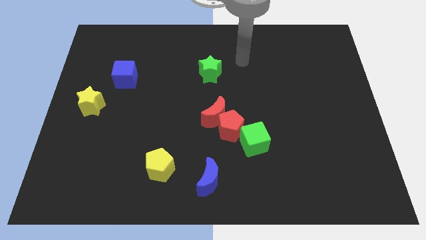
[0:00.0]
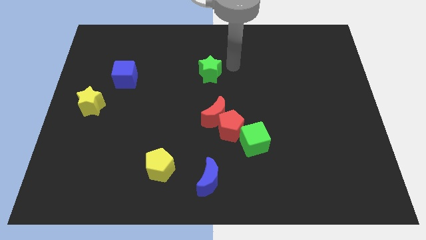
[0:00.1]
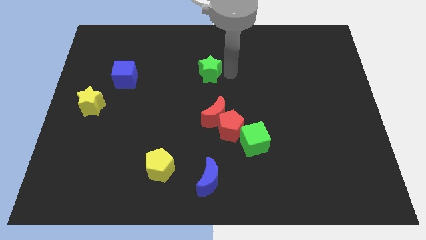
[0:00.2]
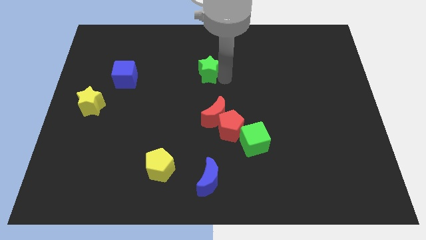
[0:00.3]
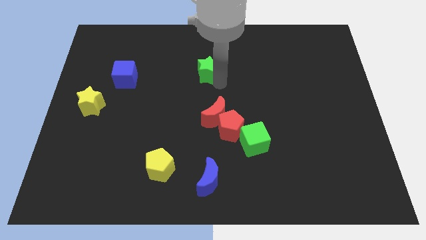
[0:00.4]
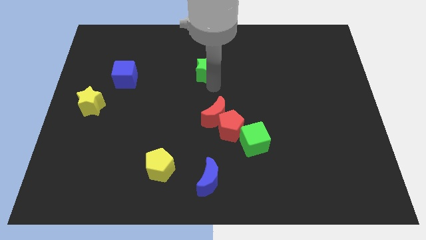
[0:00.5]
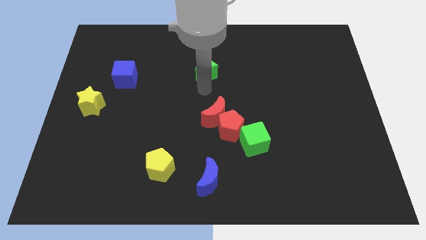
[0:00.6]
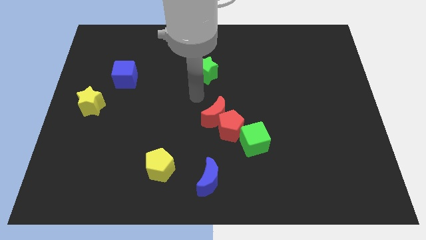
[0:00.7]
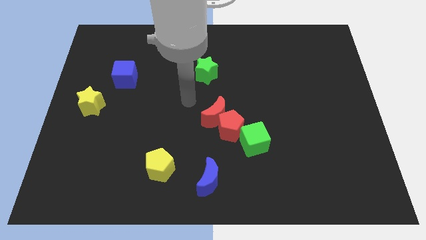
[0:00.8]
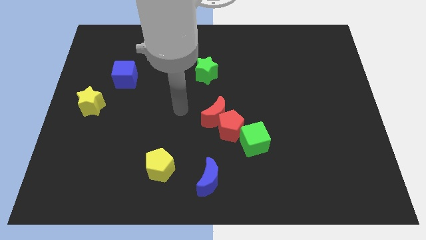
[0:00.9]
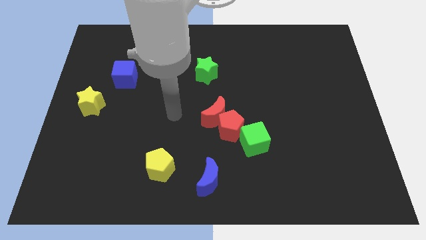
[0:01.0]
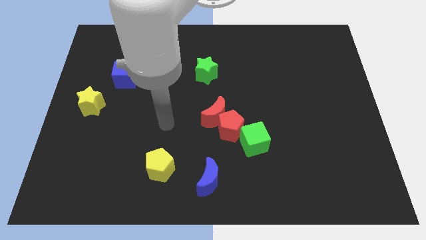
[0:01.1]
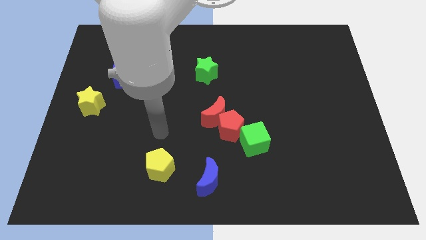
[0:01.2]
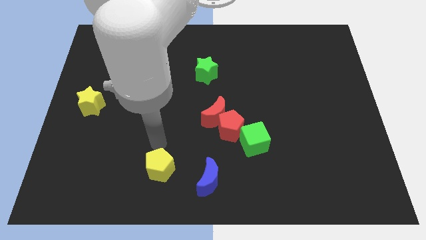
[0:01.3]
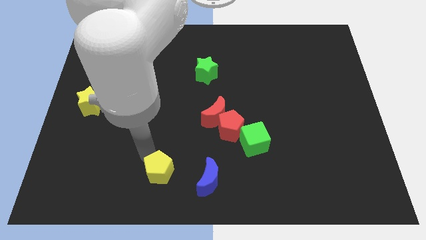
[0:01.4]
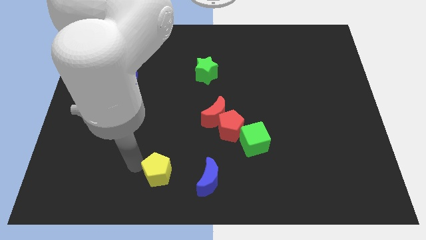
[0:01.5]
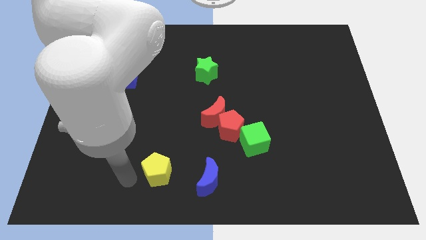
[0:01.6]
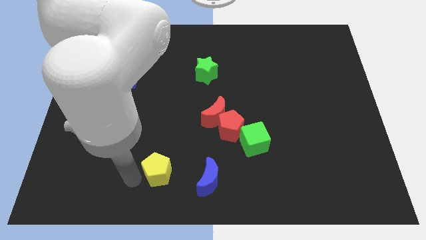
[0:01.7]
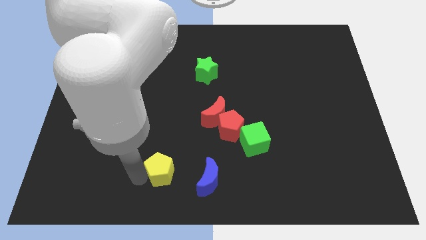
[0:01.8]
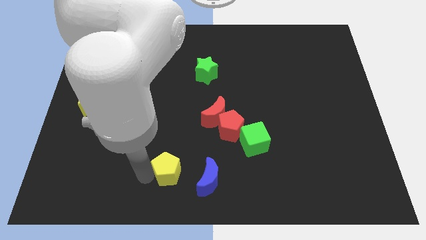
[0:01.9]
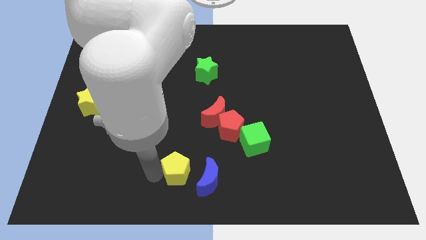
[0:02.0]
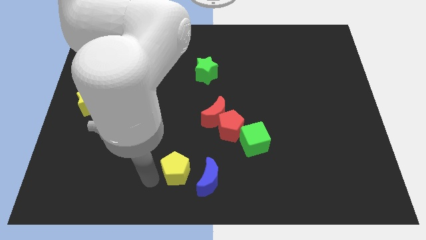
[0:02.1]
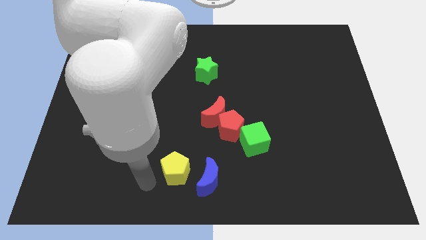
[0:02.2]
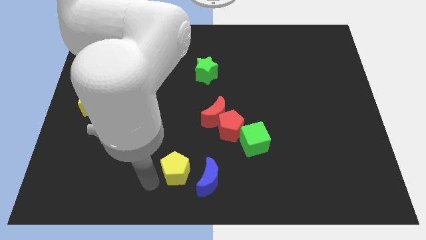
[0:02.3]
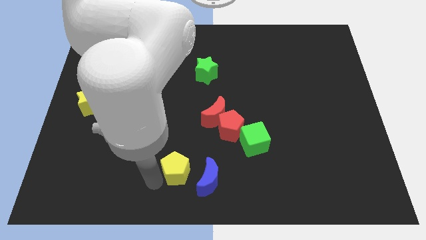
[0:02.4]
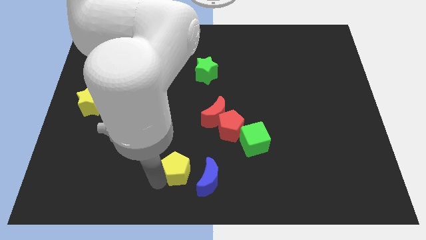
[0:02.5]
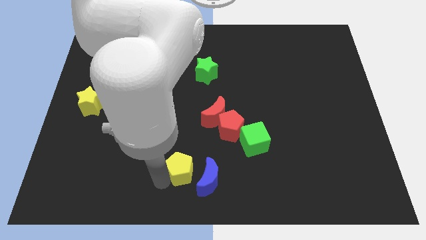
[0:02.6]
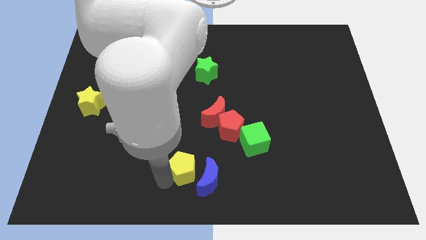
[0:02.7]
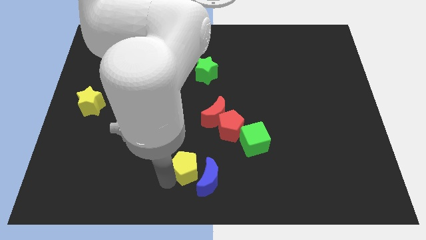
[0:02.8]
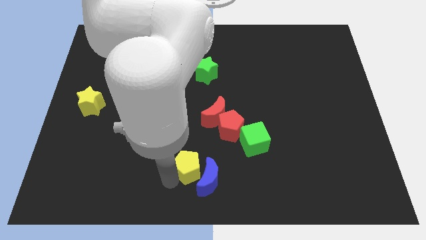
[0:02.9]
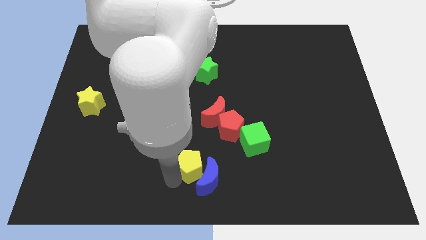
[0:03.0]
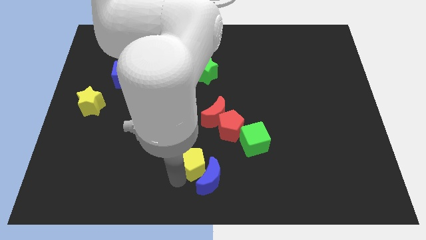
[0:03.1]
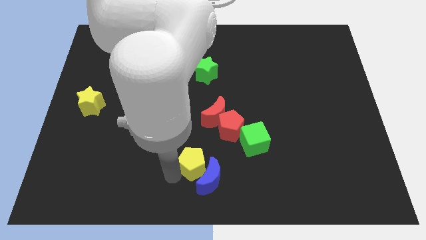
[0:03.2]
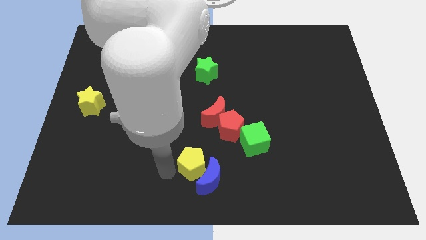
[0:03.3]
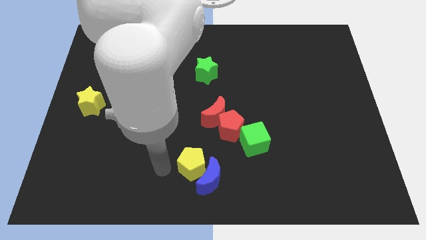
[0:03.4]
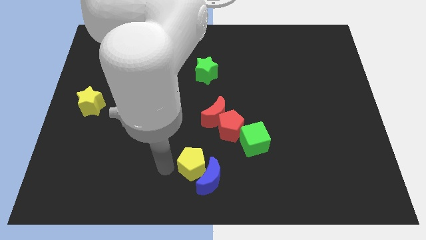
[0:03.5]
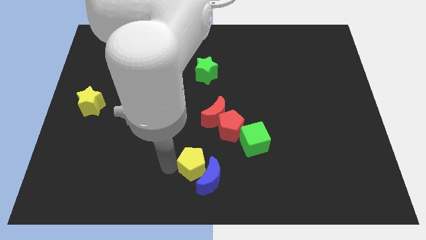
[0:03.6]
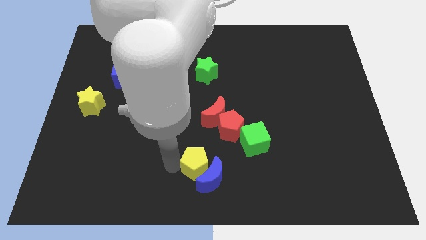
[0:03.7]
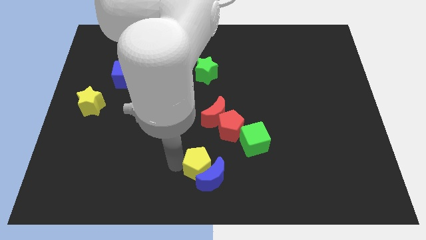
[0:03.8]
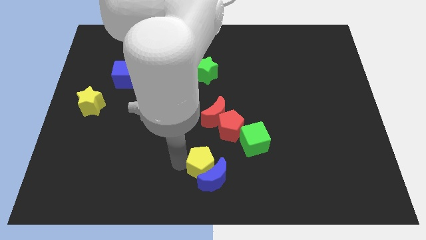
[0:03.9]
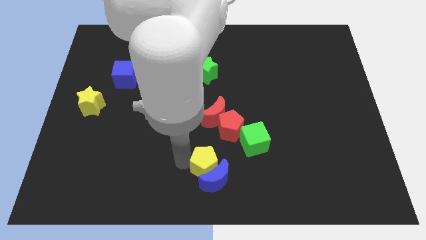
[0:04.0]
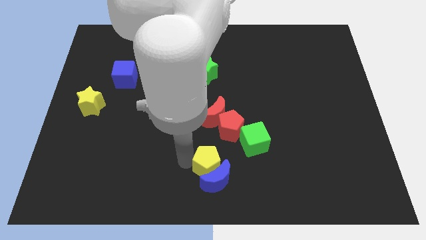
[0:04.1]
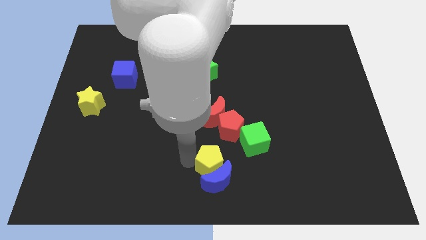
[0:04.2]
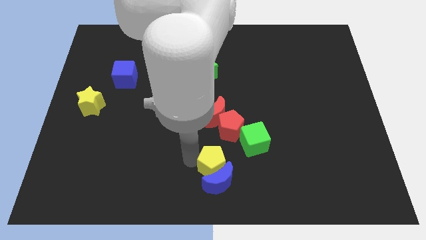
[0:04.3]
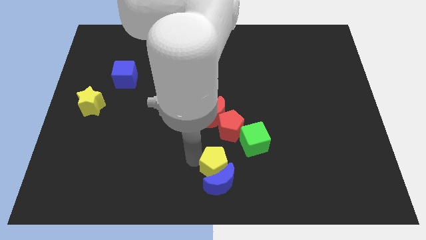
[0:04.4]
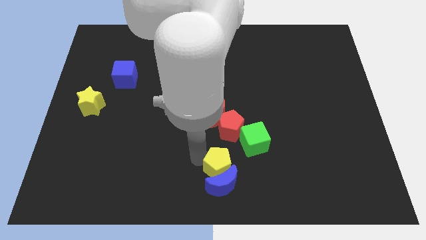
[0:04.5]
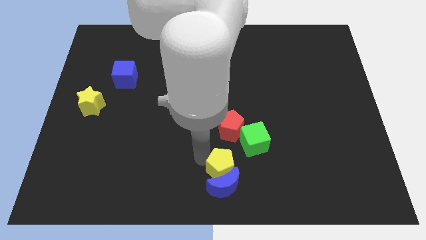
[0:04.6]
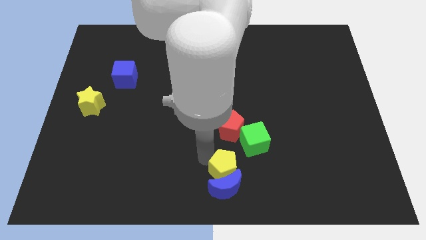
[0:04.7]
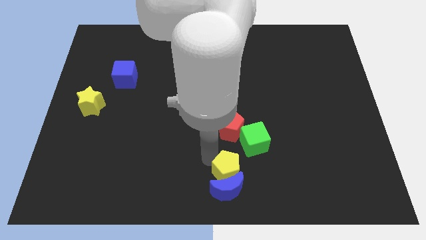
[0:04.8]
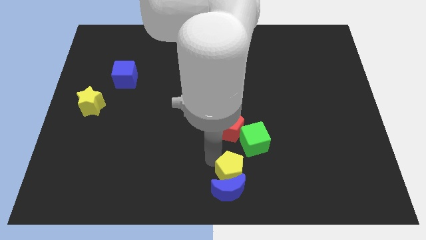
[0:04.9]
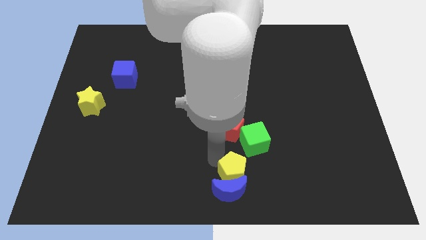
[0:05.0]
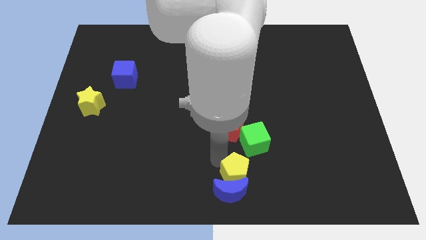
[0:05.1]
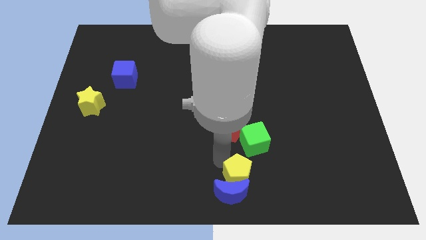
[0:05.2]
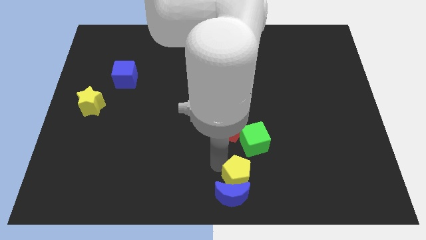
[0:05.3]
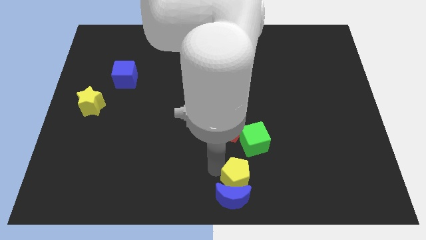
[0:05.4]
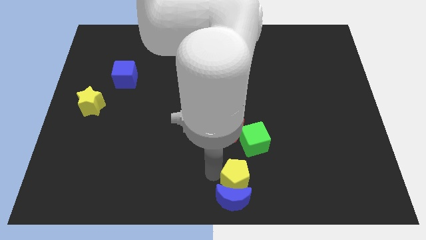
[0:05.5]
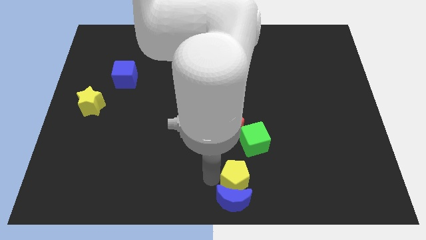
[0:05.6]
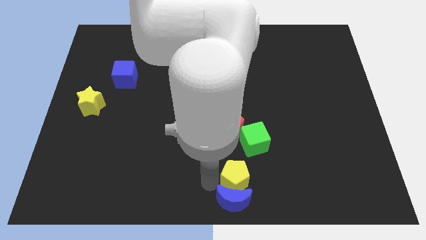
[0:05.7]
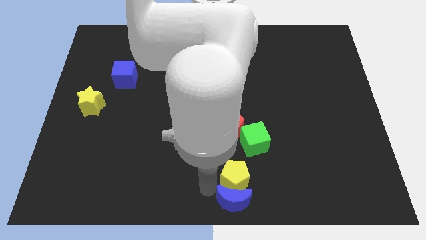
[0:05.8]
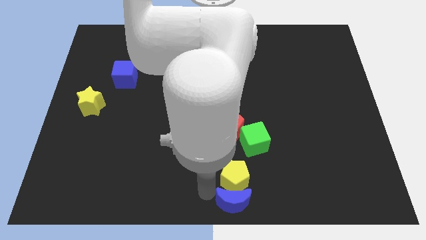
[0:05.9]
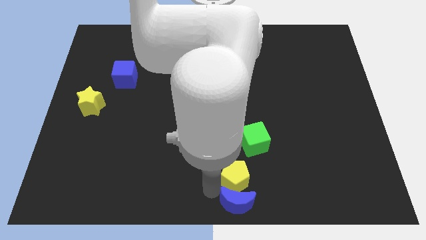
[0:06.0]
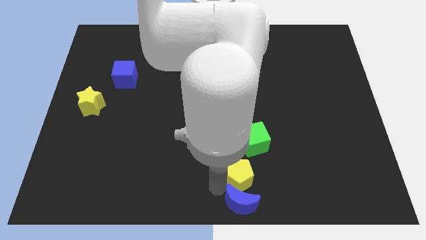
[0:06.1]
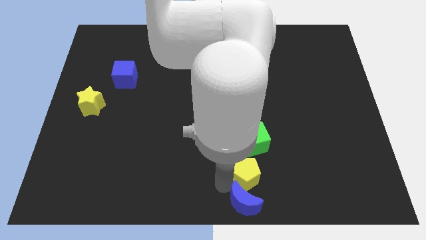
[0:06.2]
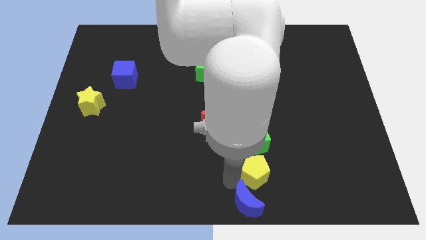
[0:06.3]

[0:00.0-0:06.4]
move the yellow pentagon right

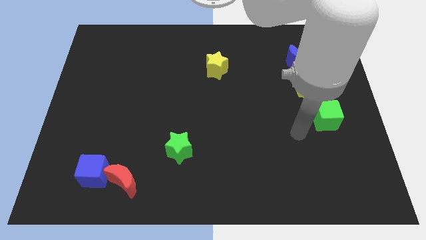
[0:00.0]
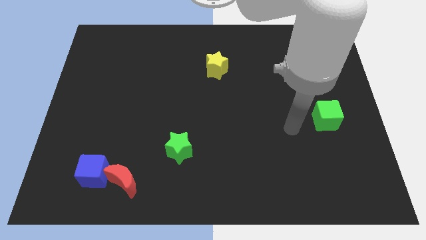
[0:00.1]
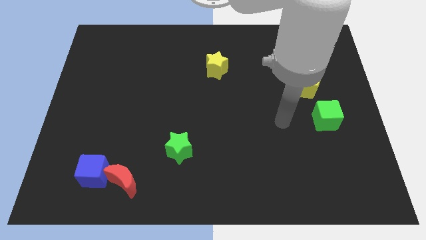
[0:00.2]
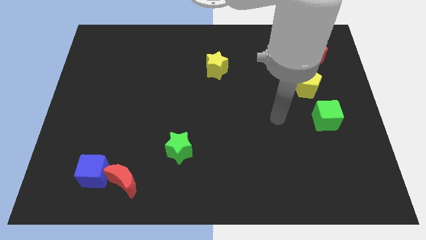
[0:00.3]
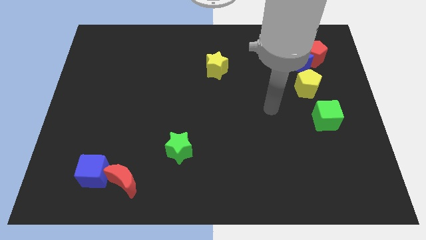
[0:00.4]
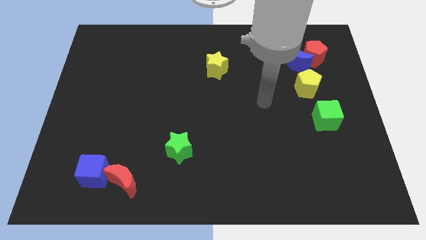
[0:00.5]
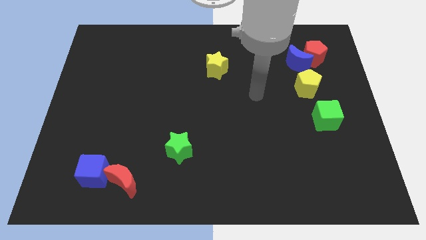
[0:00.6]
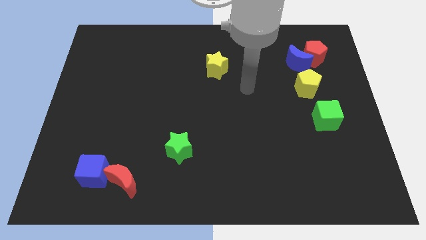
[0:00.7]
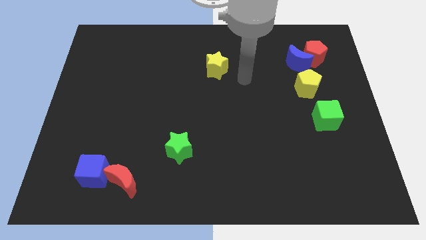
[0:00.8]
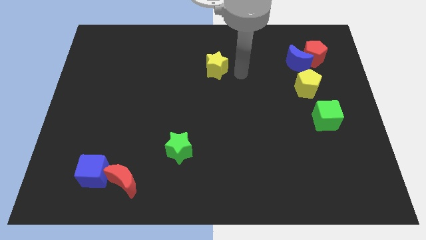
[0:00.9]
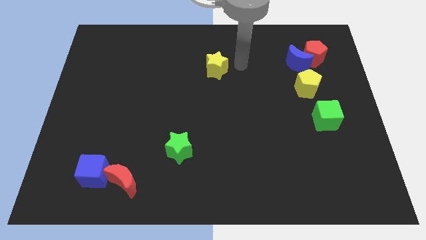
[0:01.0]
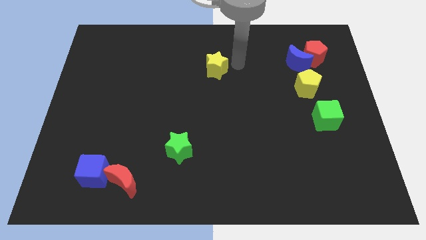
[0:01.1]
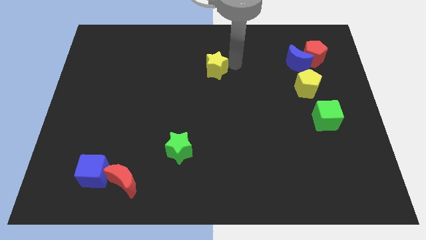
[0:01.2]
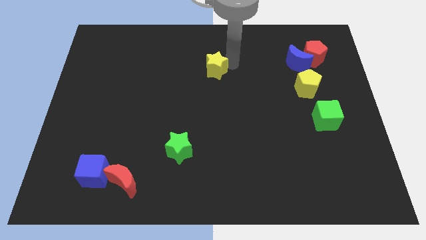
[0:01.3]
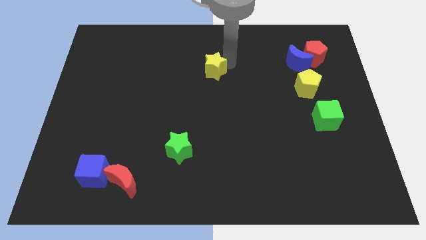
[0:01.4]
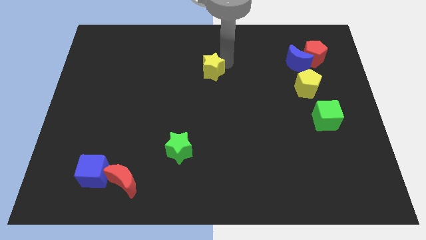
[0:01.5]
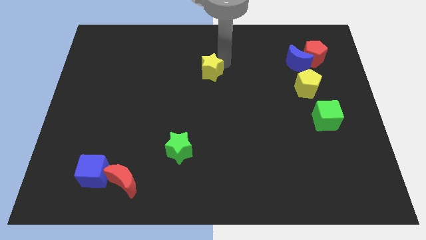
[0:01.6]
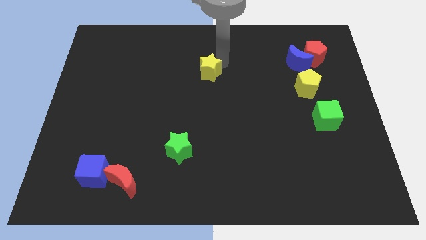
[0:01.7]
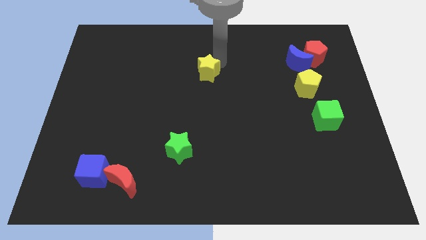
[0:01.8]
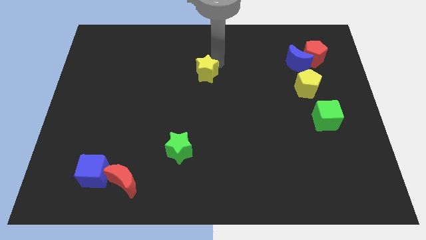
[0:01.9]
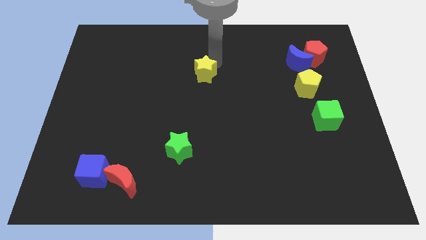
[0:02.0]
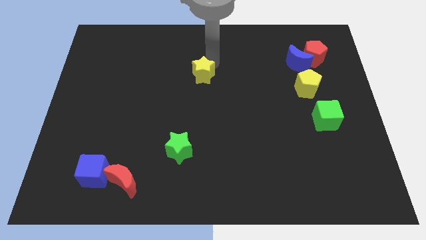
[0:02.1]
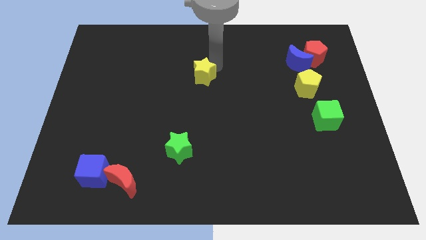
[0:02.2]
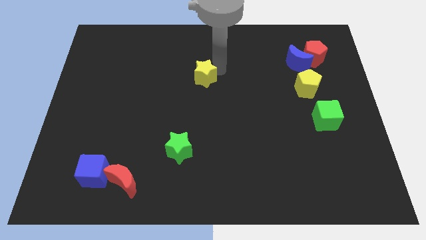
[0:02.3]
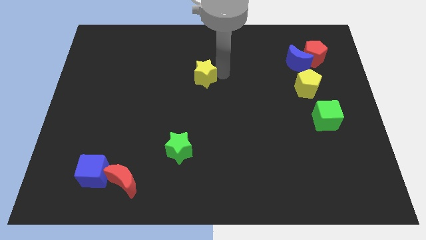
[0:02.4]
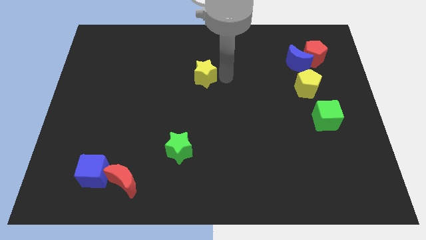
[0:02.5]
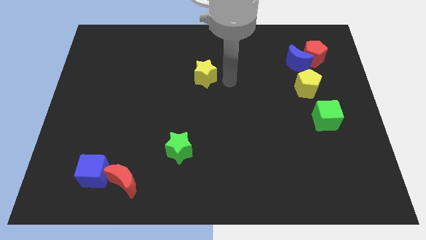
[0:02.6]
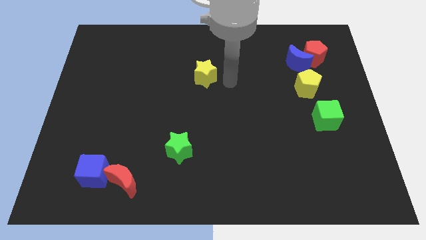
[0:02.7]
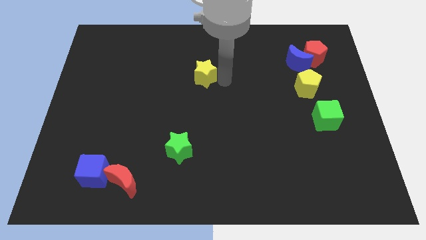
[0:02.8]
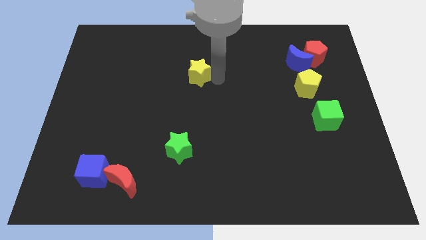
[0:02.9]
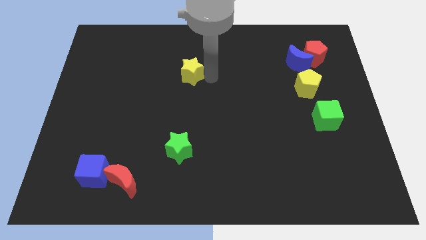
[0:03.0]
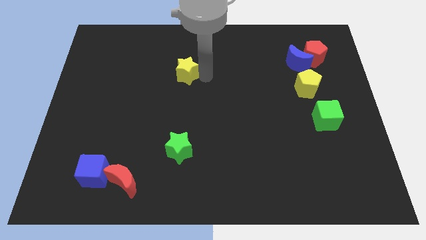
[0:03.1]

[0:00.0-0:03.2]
move the yellow star to the left a little bit
